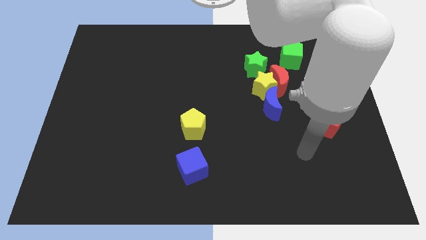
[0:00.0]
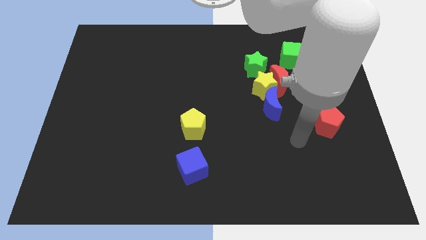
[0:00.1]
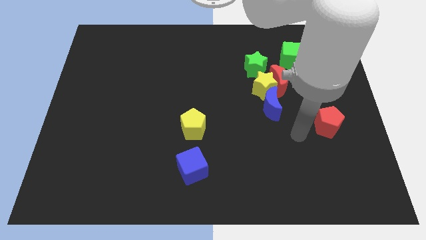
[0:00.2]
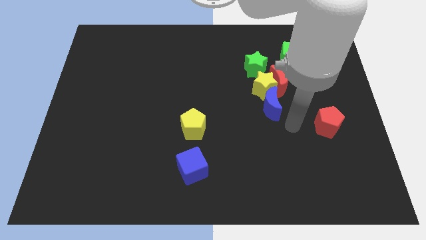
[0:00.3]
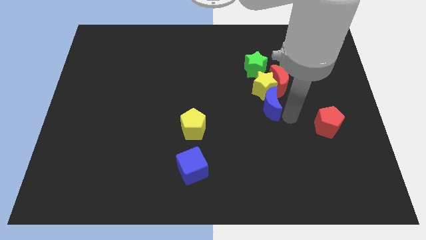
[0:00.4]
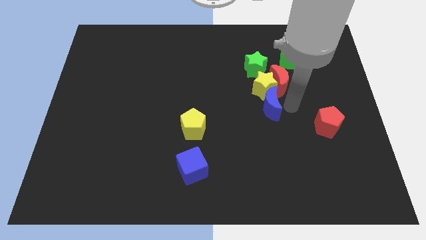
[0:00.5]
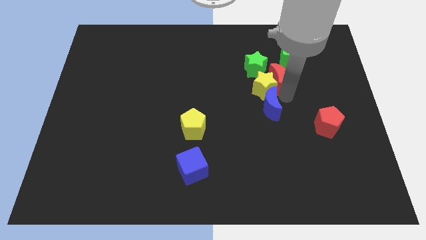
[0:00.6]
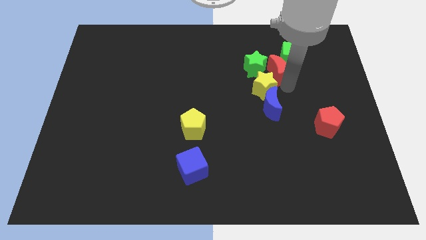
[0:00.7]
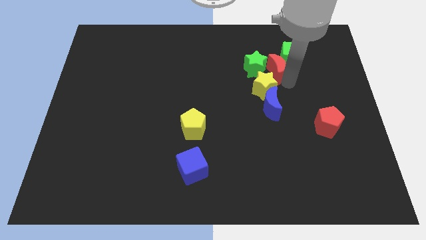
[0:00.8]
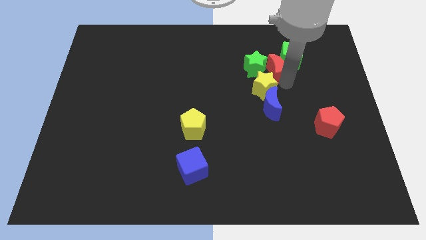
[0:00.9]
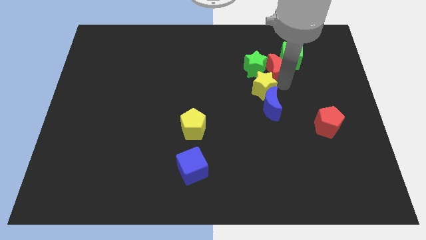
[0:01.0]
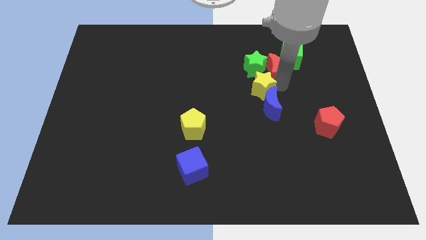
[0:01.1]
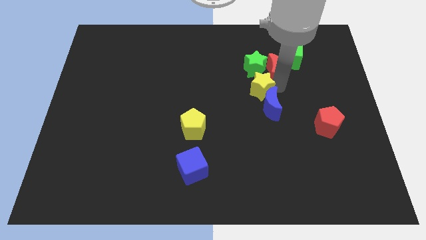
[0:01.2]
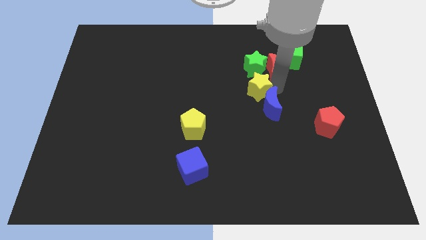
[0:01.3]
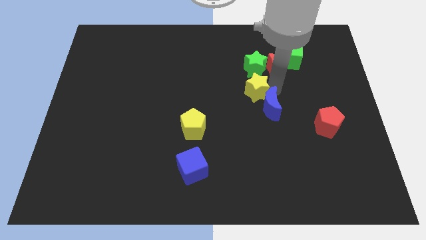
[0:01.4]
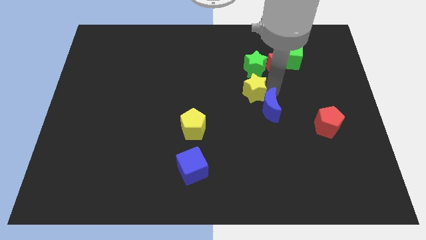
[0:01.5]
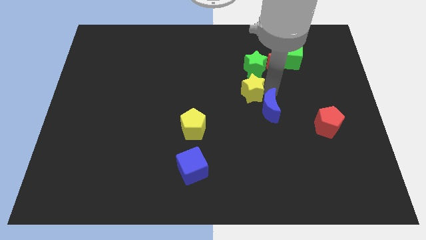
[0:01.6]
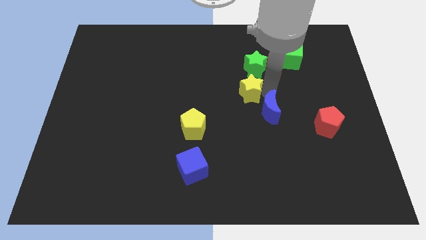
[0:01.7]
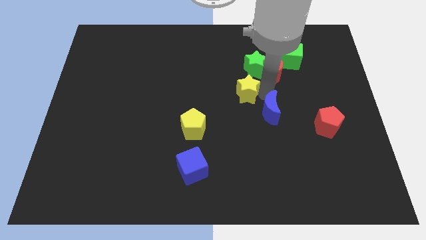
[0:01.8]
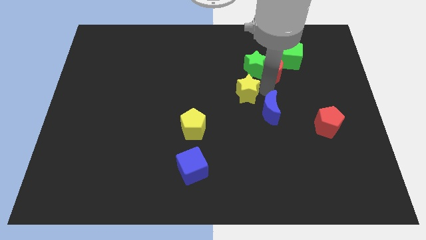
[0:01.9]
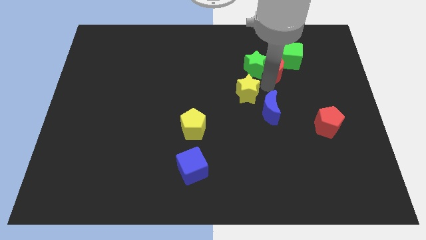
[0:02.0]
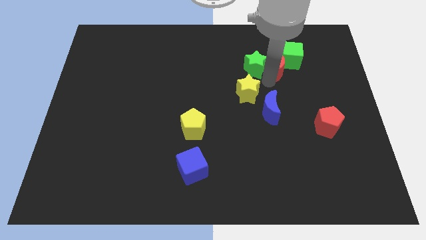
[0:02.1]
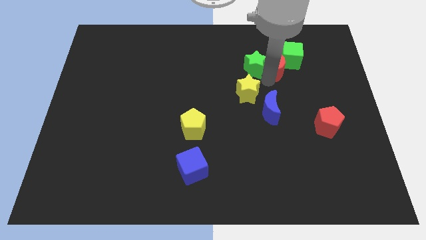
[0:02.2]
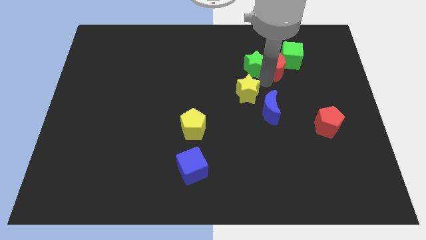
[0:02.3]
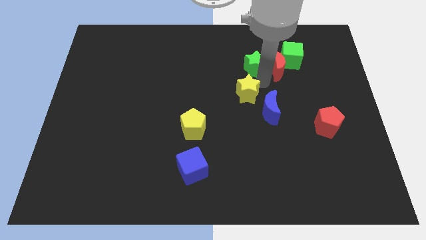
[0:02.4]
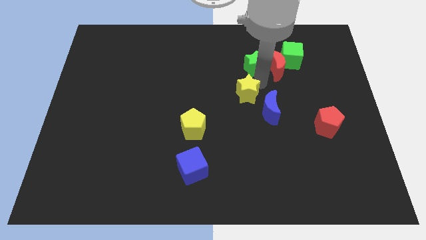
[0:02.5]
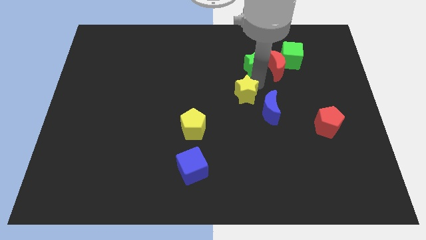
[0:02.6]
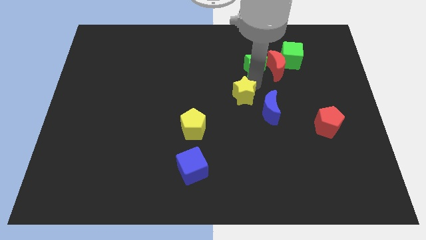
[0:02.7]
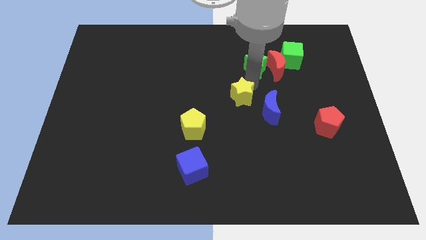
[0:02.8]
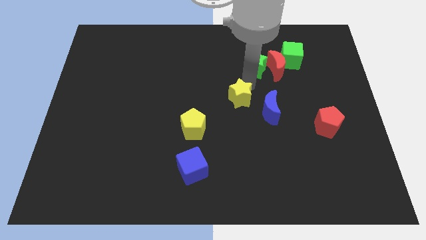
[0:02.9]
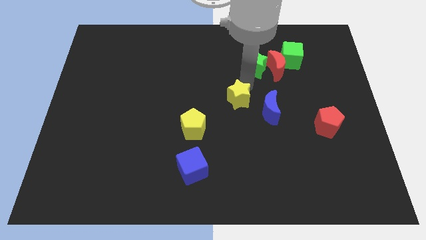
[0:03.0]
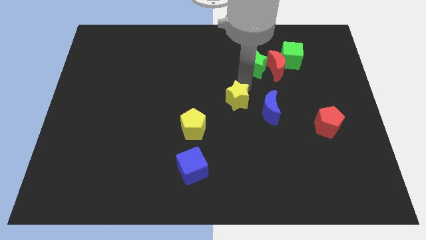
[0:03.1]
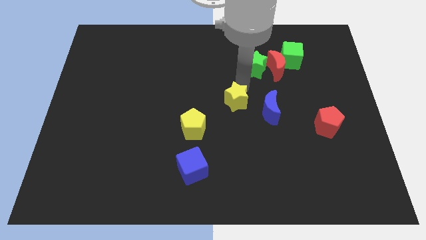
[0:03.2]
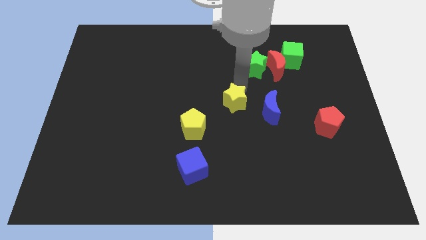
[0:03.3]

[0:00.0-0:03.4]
pull the yellow star apart from the red moon, blue moon, and green star

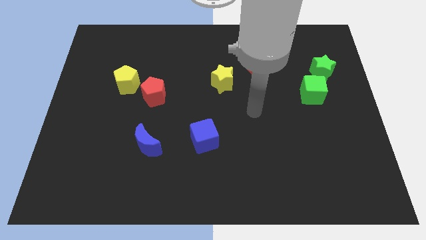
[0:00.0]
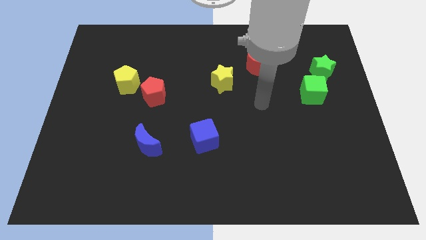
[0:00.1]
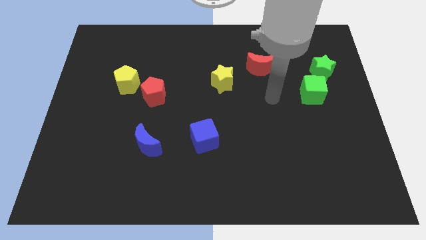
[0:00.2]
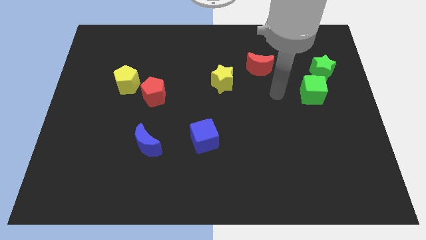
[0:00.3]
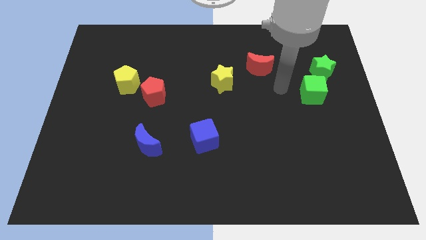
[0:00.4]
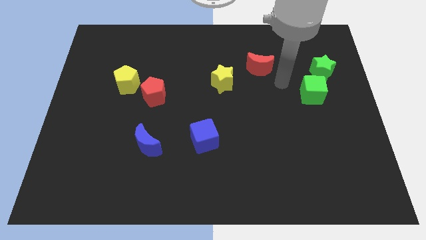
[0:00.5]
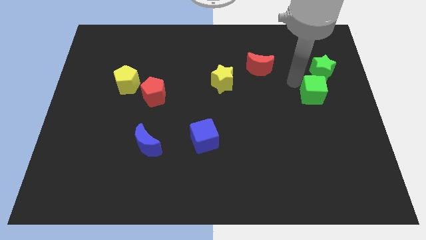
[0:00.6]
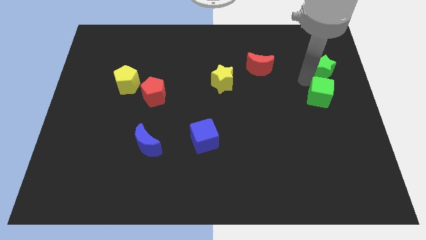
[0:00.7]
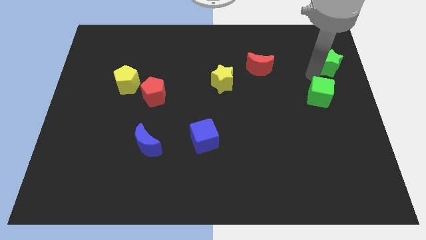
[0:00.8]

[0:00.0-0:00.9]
pull the green cube apart from the green star

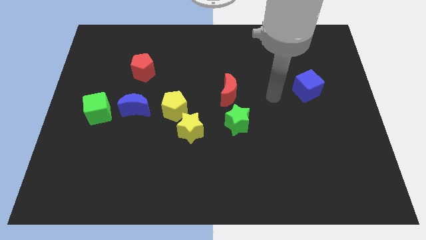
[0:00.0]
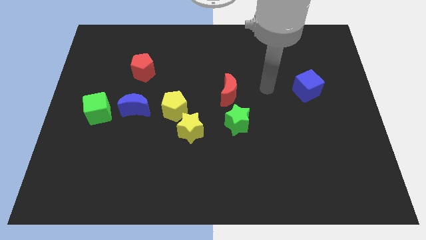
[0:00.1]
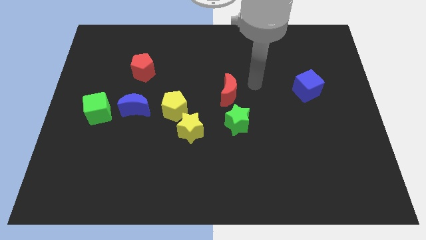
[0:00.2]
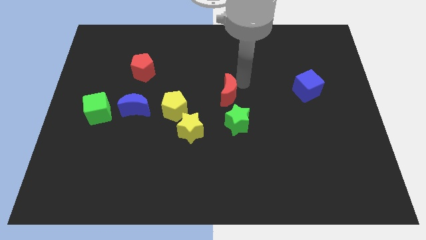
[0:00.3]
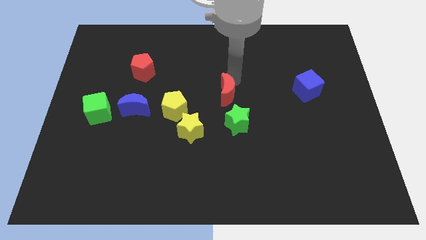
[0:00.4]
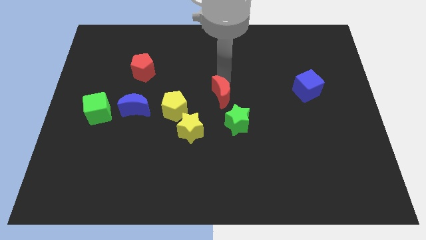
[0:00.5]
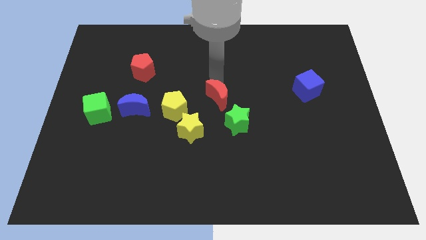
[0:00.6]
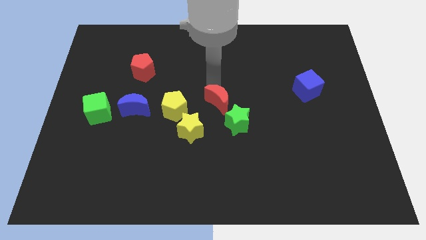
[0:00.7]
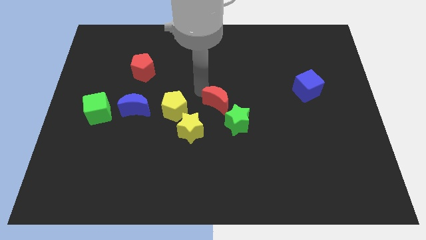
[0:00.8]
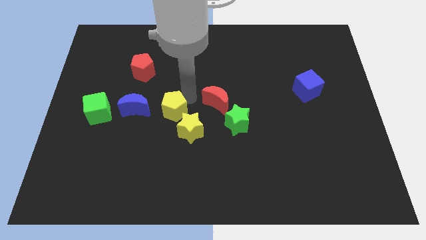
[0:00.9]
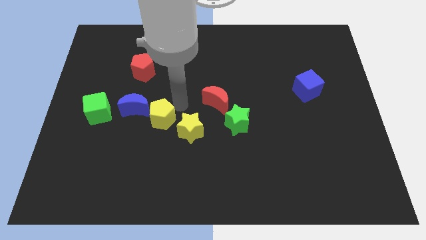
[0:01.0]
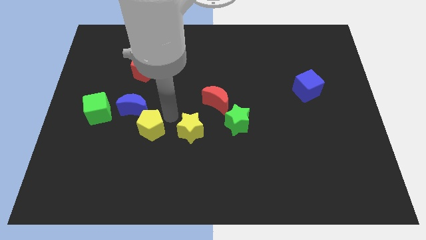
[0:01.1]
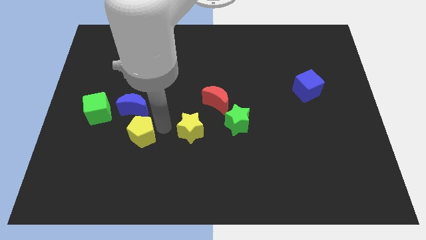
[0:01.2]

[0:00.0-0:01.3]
pull the yellow star apart from the yellow pentagon

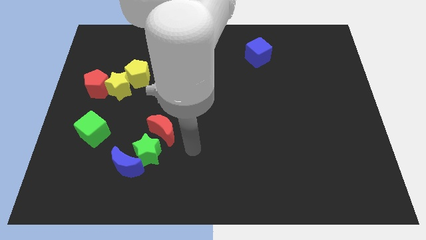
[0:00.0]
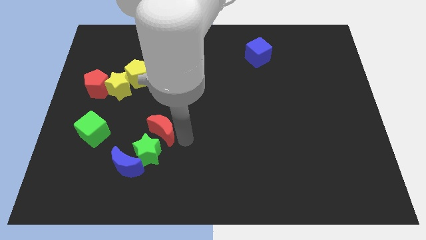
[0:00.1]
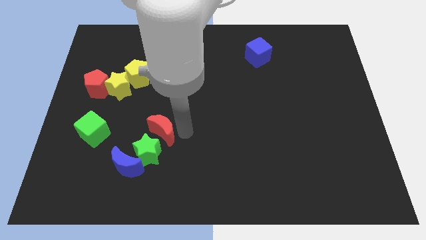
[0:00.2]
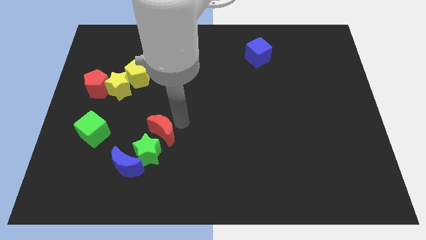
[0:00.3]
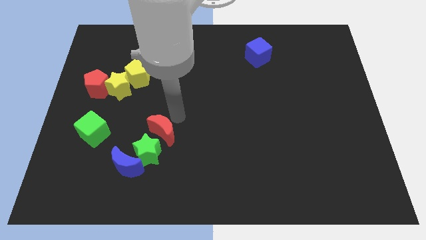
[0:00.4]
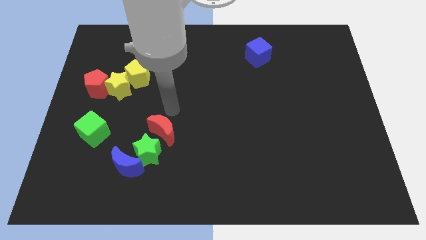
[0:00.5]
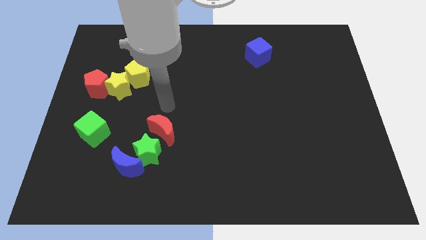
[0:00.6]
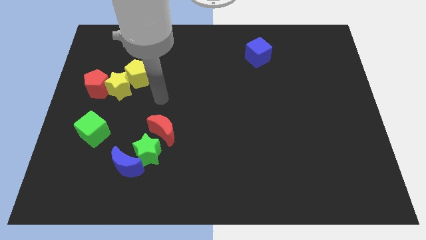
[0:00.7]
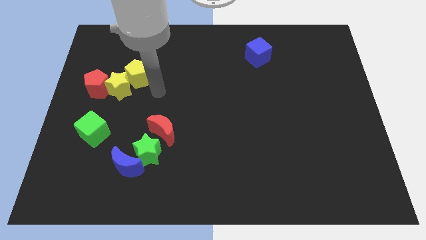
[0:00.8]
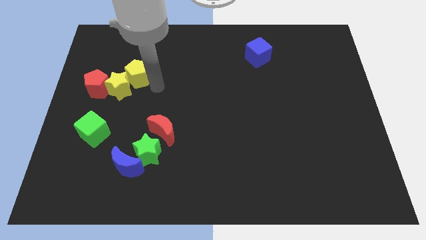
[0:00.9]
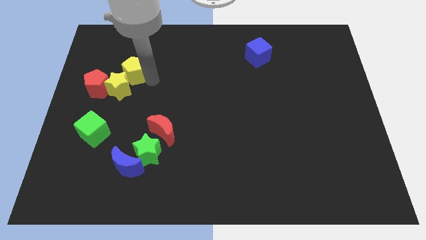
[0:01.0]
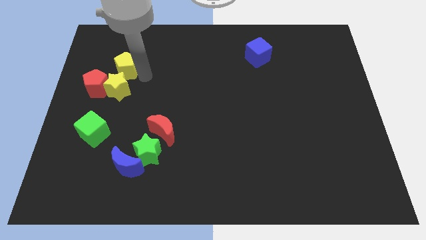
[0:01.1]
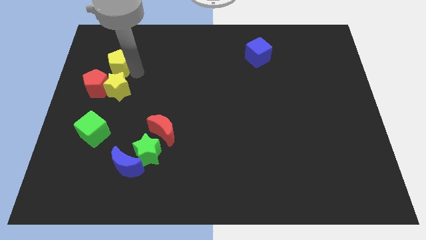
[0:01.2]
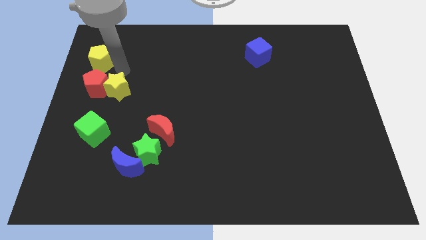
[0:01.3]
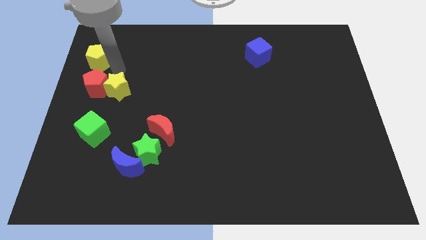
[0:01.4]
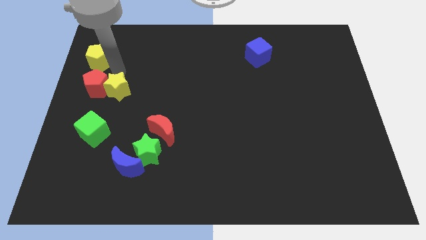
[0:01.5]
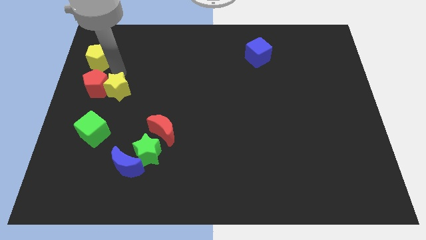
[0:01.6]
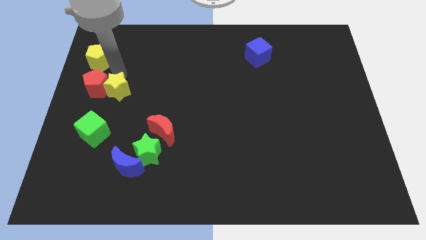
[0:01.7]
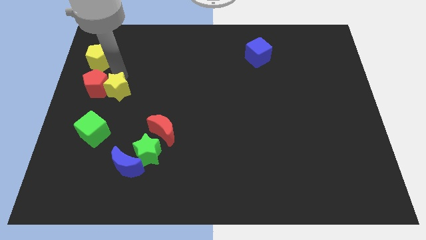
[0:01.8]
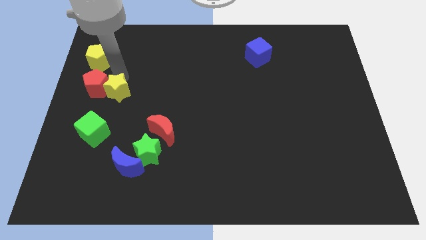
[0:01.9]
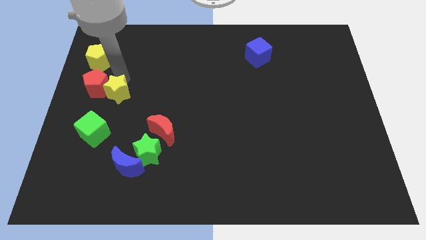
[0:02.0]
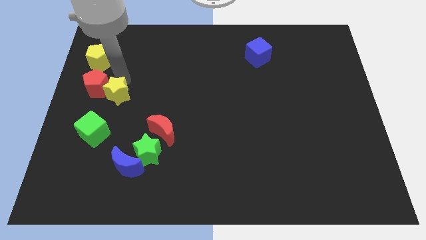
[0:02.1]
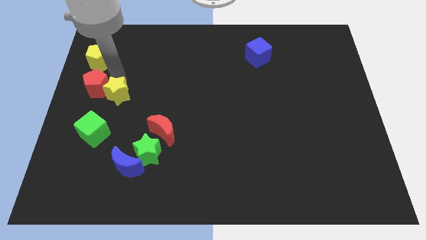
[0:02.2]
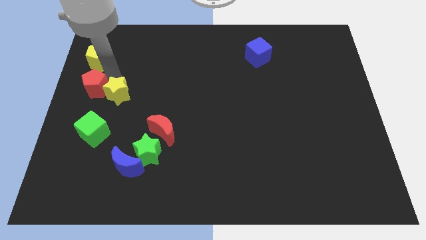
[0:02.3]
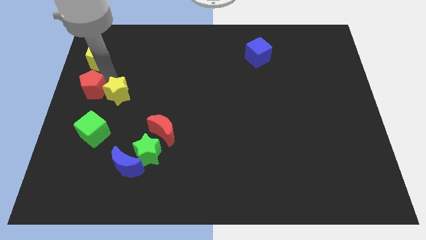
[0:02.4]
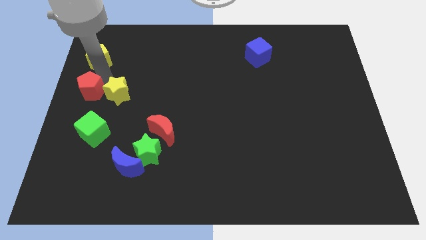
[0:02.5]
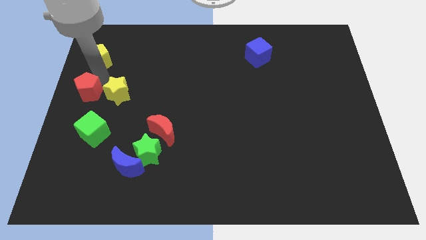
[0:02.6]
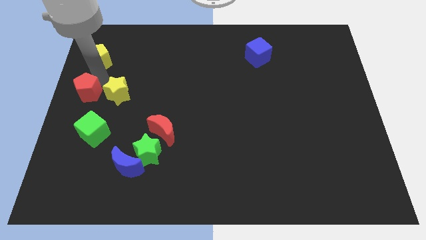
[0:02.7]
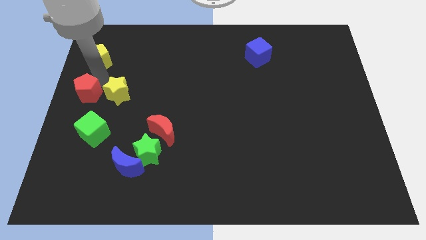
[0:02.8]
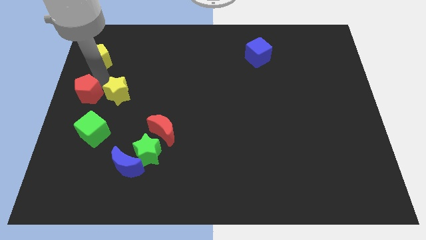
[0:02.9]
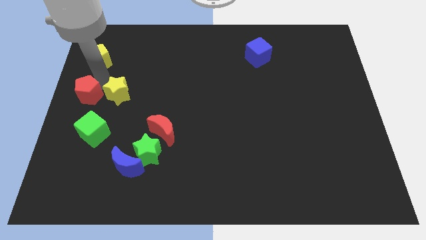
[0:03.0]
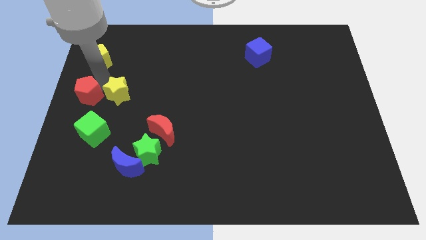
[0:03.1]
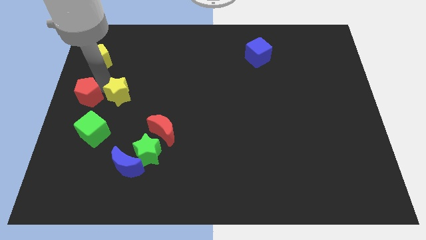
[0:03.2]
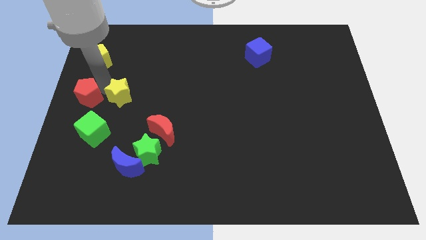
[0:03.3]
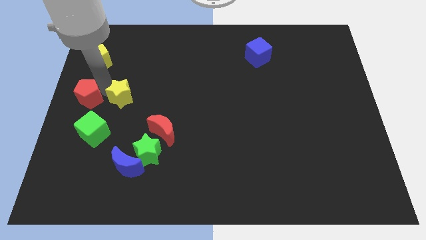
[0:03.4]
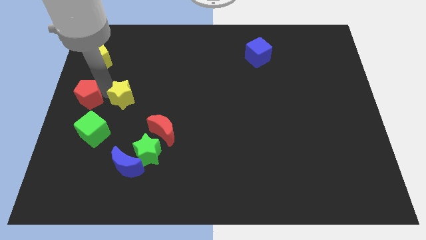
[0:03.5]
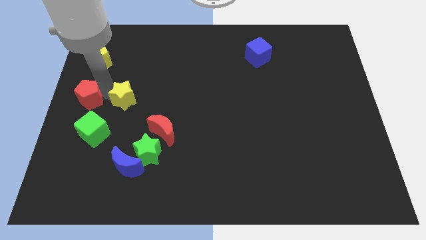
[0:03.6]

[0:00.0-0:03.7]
move the yellow star away from the red pentagon and yellow pentagon
